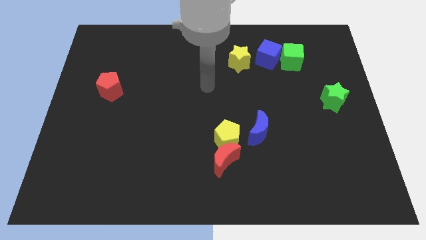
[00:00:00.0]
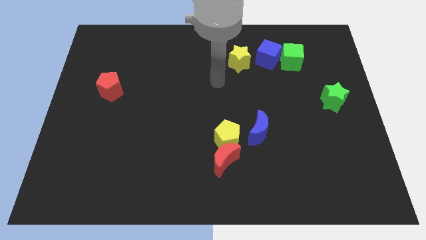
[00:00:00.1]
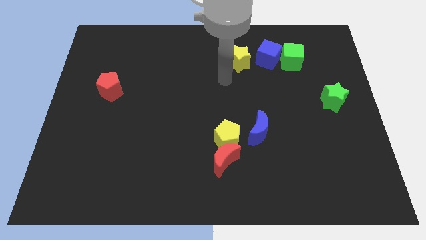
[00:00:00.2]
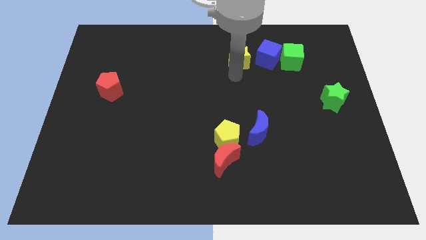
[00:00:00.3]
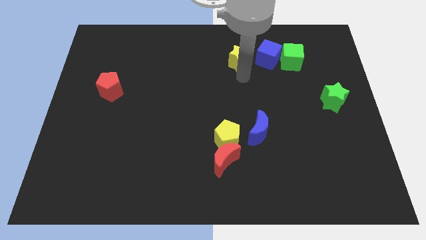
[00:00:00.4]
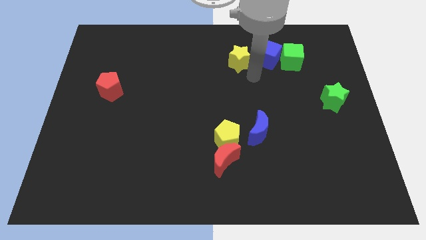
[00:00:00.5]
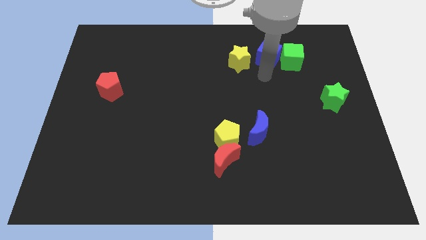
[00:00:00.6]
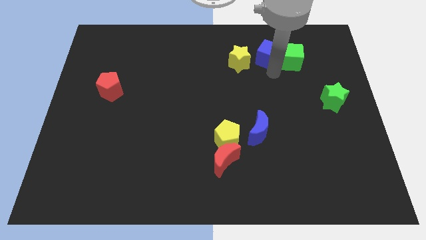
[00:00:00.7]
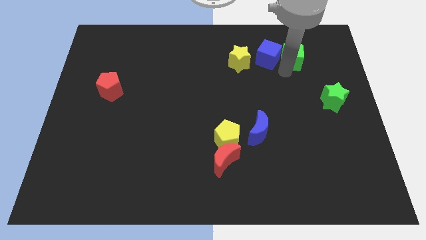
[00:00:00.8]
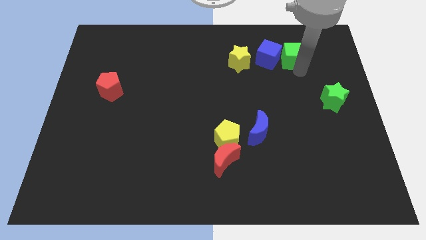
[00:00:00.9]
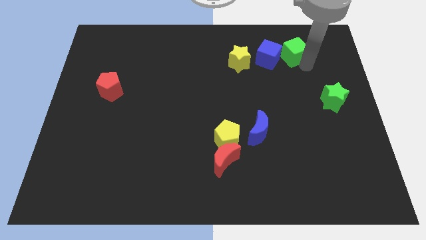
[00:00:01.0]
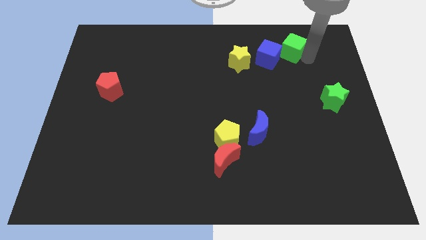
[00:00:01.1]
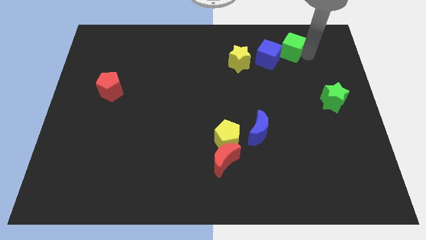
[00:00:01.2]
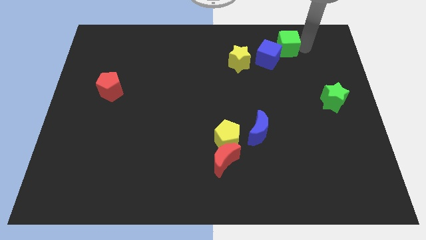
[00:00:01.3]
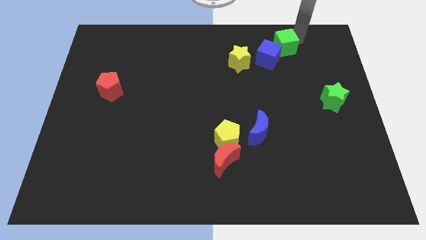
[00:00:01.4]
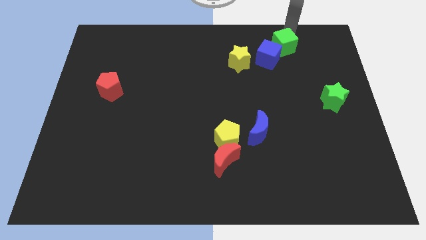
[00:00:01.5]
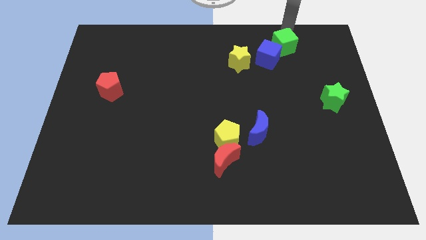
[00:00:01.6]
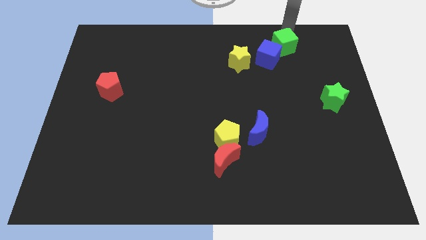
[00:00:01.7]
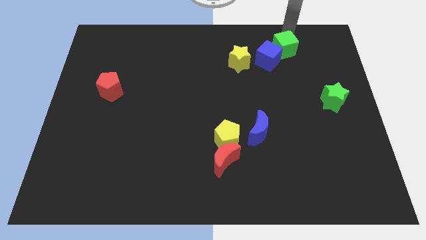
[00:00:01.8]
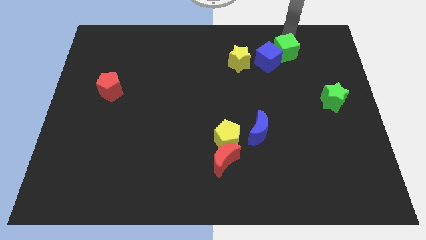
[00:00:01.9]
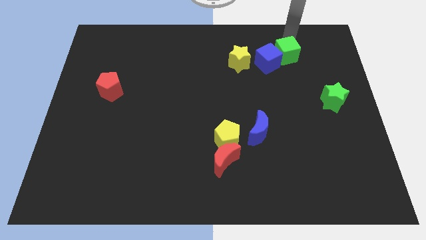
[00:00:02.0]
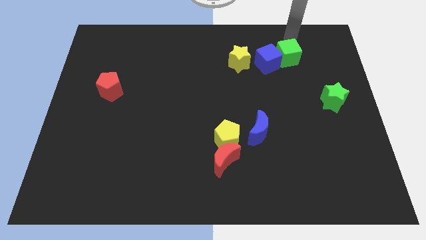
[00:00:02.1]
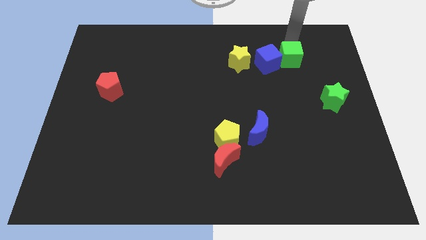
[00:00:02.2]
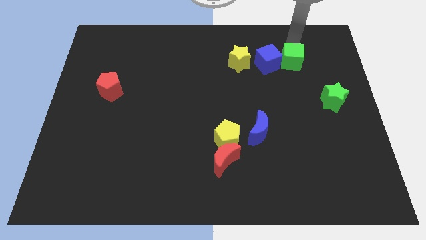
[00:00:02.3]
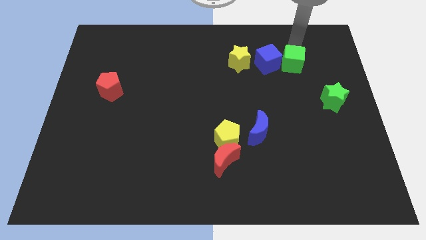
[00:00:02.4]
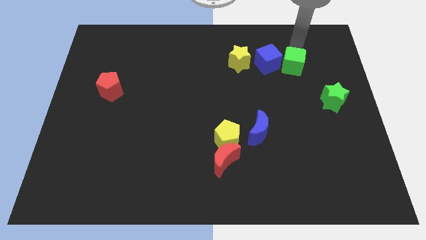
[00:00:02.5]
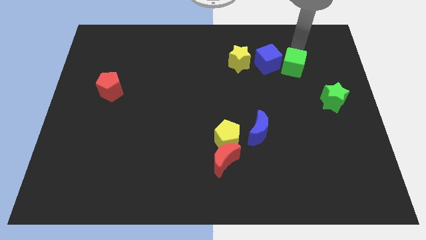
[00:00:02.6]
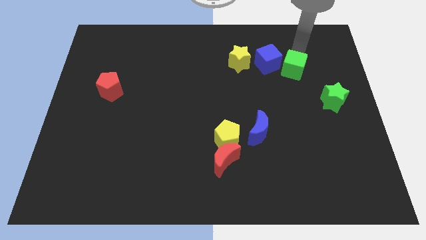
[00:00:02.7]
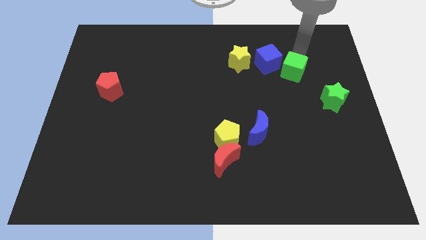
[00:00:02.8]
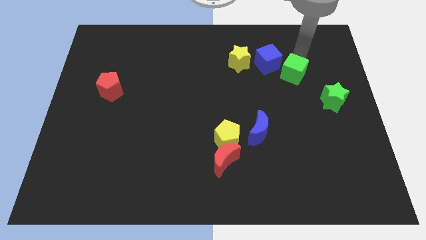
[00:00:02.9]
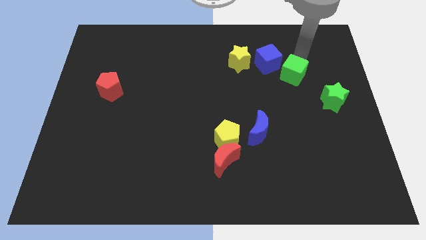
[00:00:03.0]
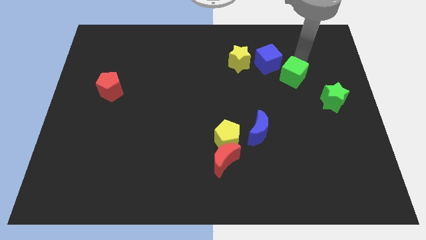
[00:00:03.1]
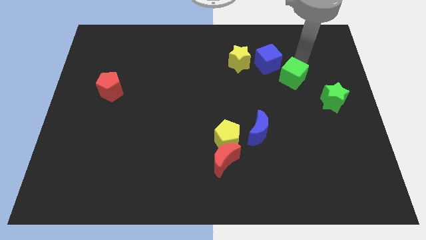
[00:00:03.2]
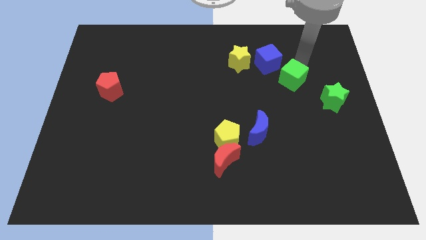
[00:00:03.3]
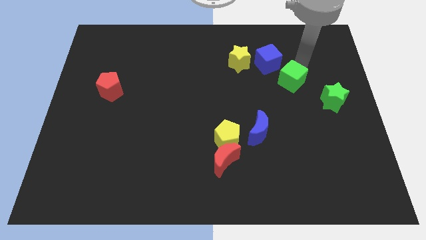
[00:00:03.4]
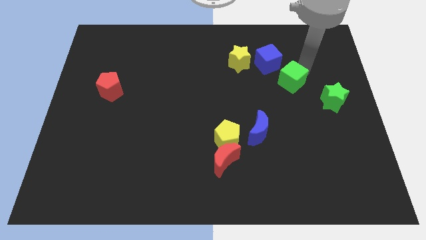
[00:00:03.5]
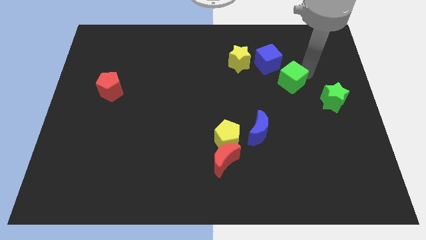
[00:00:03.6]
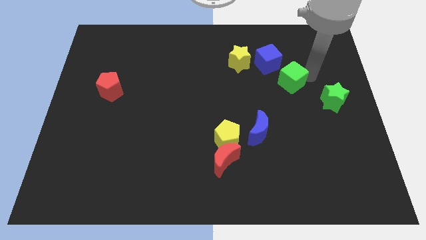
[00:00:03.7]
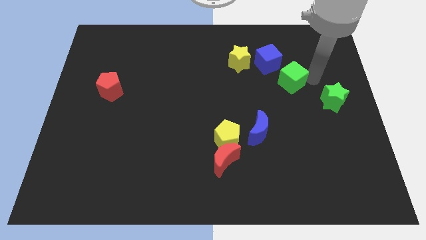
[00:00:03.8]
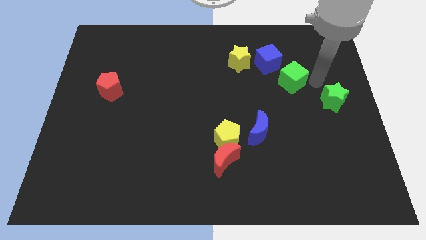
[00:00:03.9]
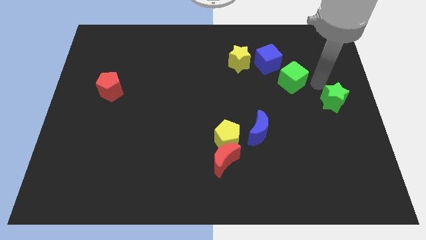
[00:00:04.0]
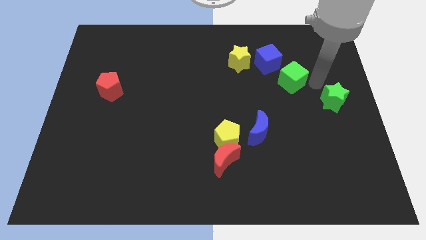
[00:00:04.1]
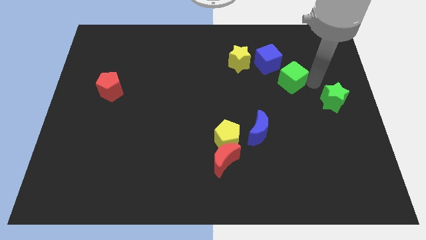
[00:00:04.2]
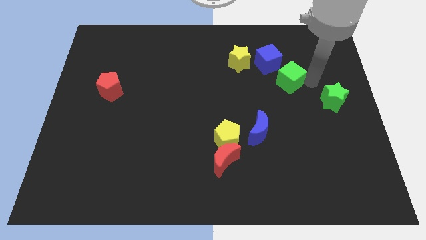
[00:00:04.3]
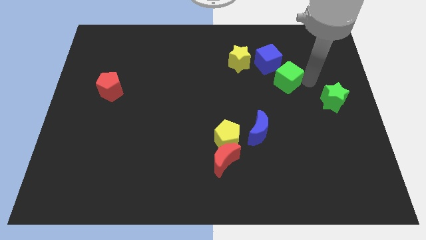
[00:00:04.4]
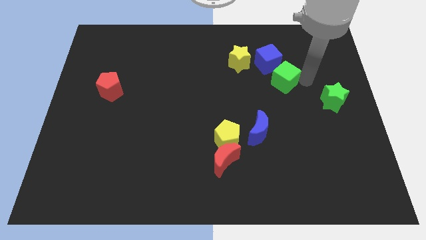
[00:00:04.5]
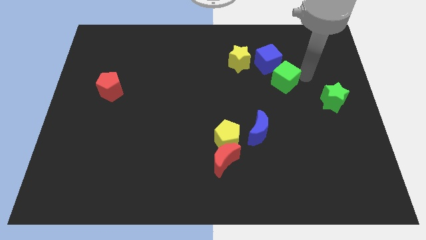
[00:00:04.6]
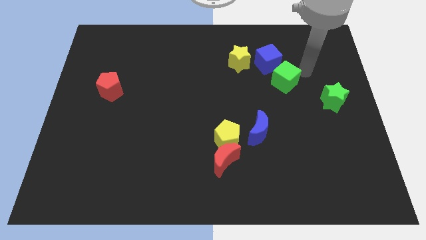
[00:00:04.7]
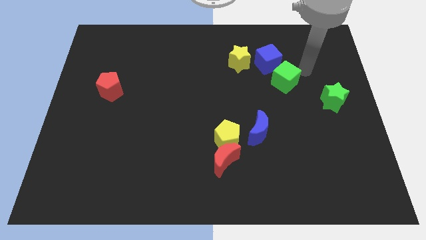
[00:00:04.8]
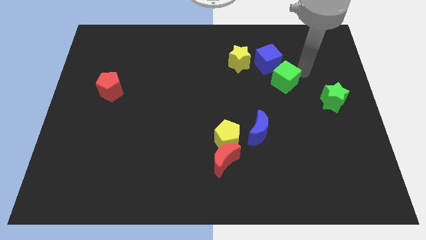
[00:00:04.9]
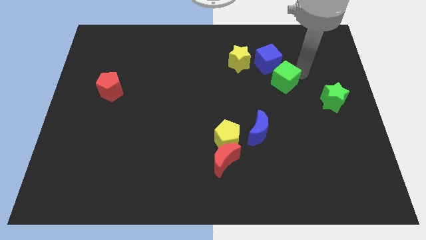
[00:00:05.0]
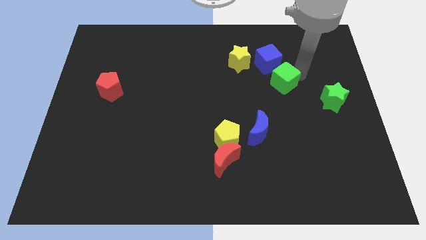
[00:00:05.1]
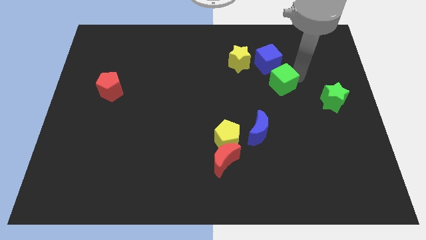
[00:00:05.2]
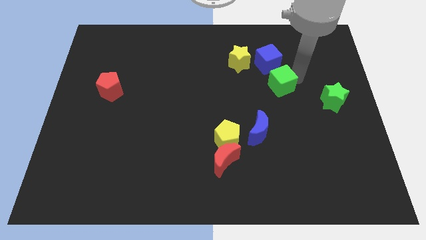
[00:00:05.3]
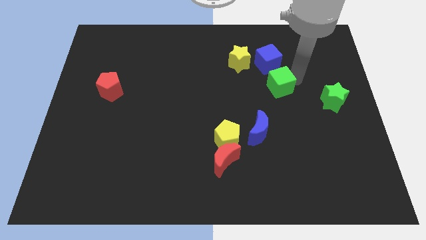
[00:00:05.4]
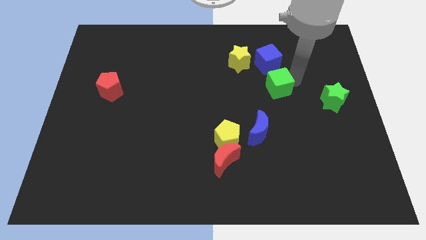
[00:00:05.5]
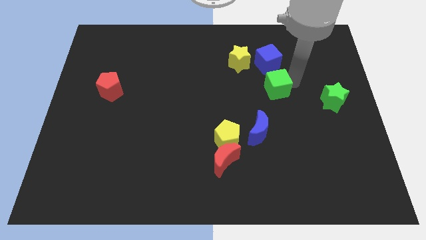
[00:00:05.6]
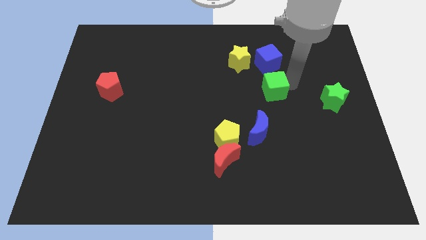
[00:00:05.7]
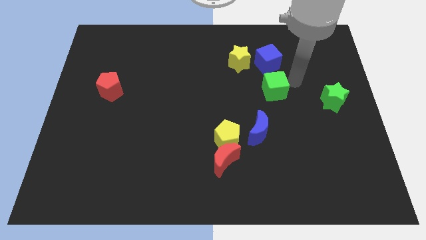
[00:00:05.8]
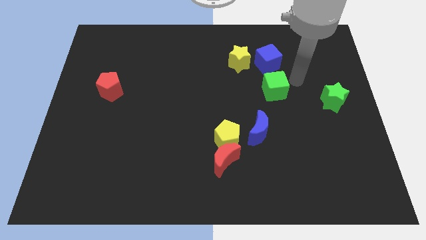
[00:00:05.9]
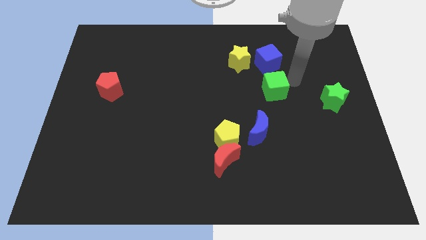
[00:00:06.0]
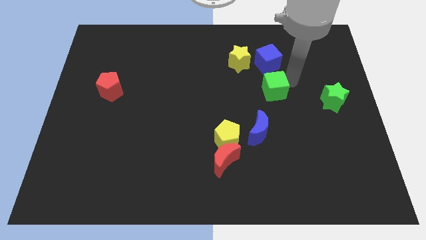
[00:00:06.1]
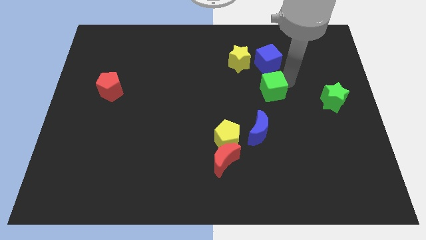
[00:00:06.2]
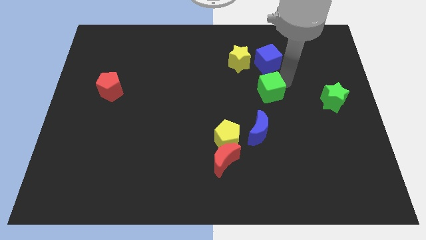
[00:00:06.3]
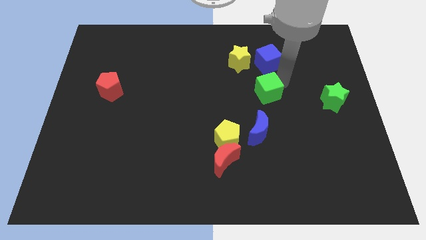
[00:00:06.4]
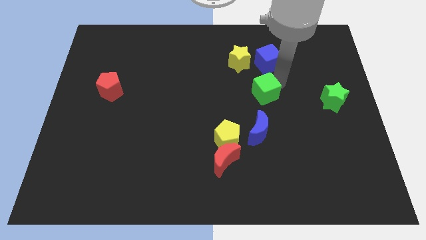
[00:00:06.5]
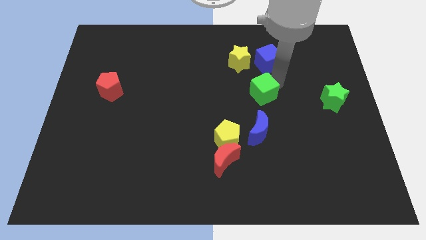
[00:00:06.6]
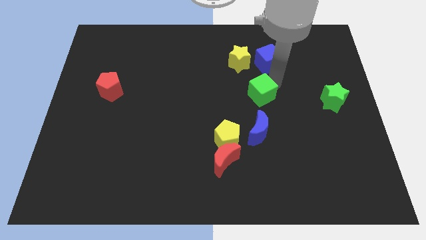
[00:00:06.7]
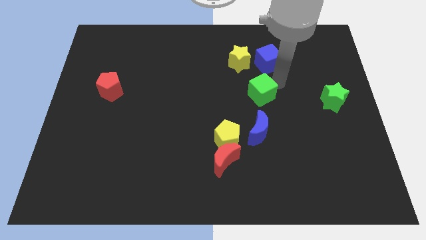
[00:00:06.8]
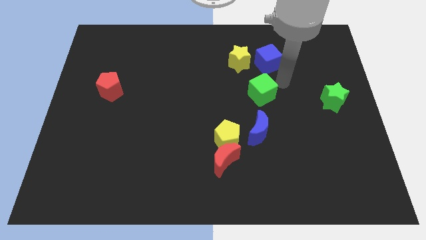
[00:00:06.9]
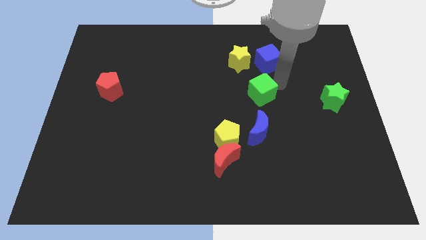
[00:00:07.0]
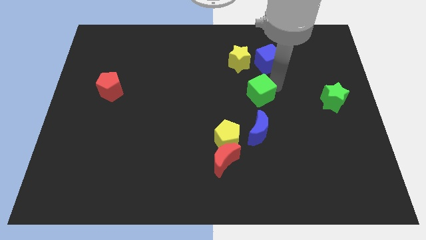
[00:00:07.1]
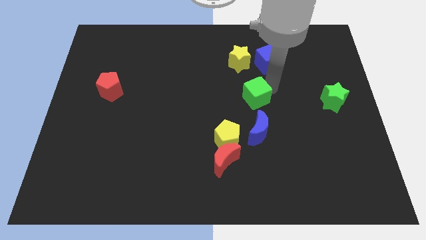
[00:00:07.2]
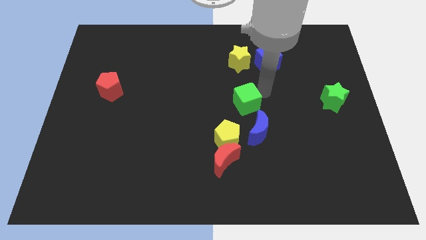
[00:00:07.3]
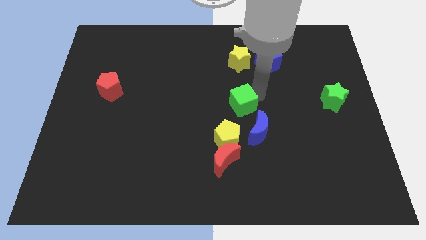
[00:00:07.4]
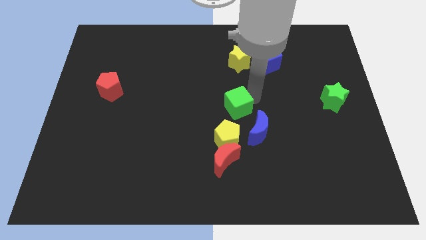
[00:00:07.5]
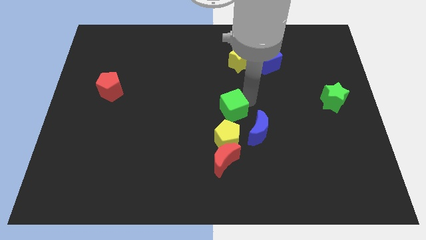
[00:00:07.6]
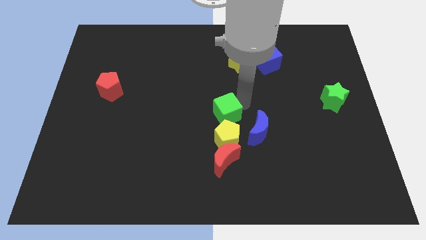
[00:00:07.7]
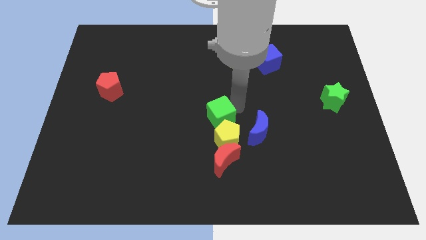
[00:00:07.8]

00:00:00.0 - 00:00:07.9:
move the green cube to the top left of the yellow pentagon
